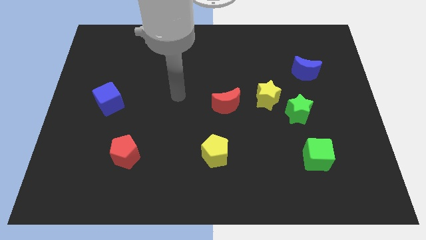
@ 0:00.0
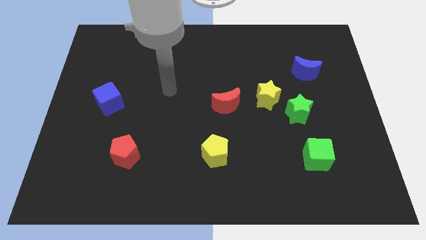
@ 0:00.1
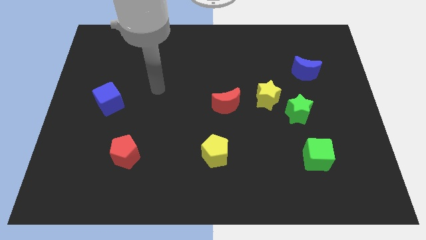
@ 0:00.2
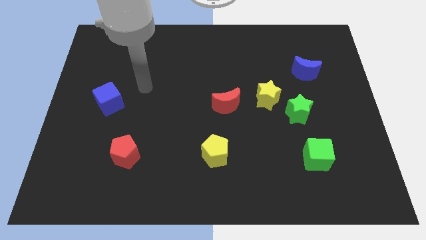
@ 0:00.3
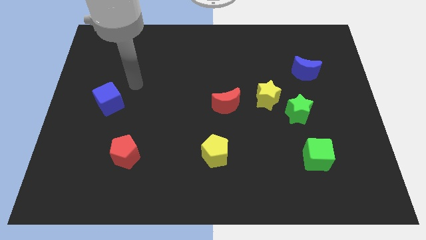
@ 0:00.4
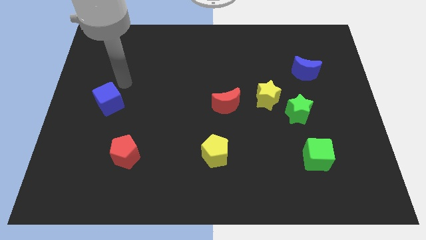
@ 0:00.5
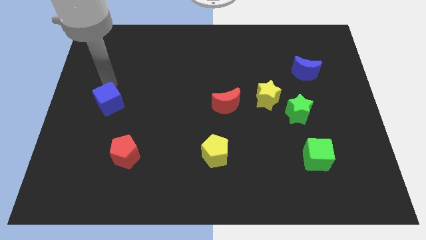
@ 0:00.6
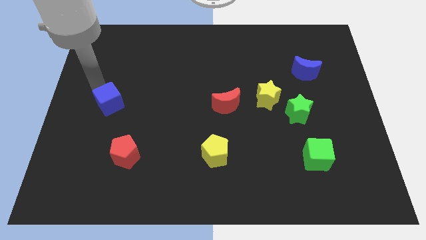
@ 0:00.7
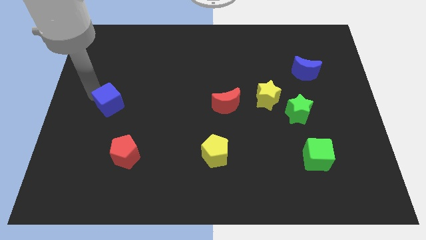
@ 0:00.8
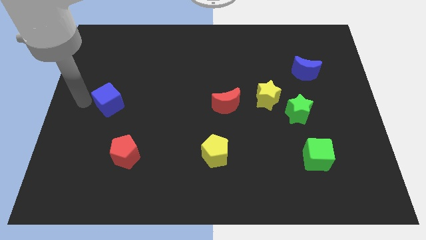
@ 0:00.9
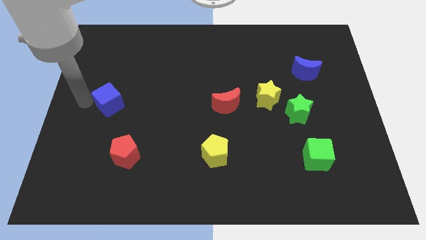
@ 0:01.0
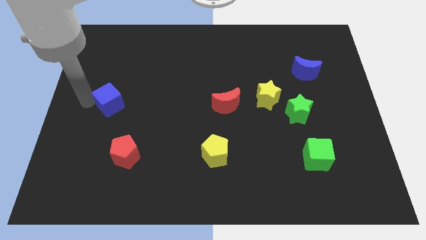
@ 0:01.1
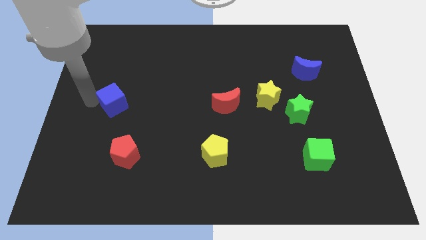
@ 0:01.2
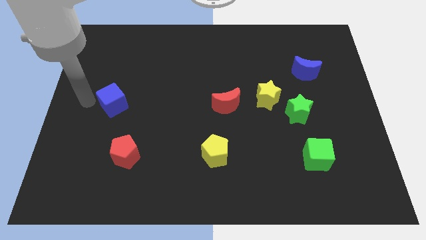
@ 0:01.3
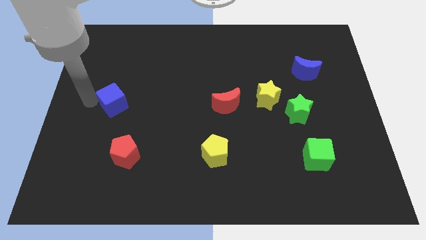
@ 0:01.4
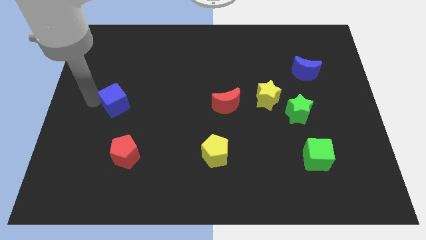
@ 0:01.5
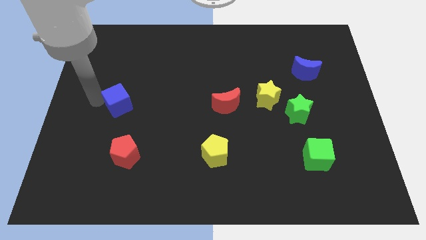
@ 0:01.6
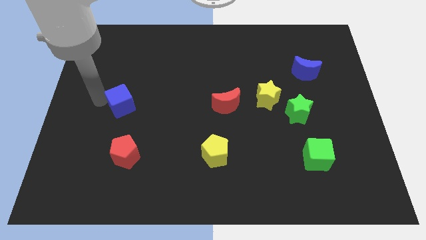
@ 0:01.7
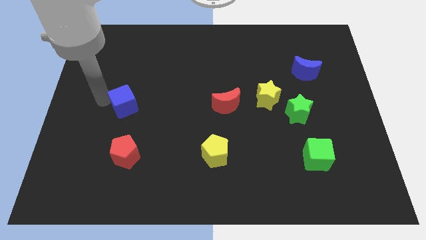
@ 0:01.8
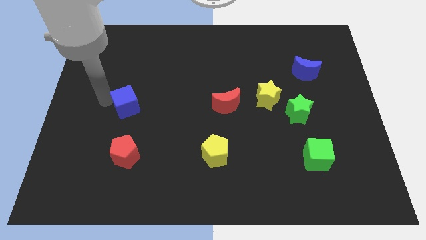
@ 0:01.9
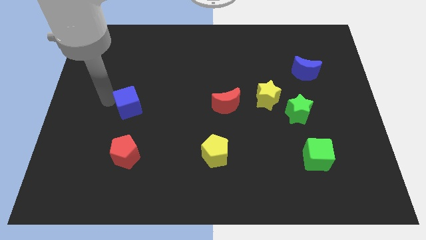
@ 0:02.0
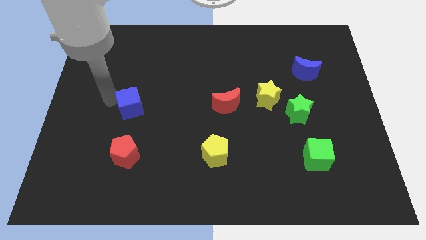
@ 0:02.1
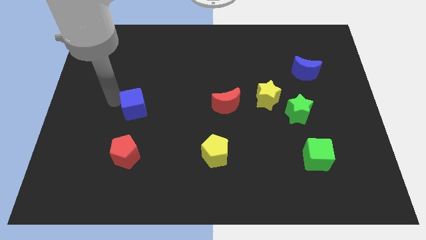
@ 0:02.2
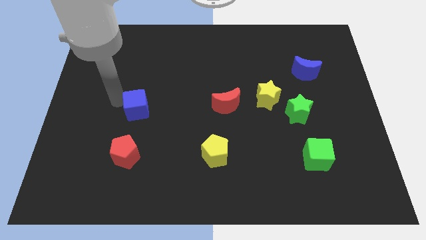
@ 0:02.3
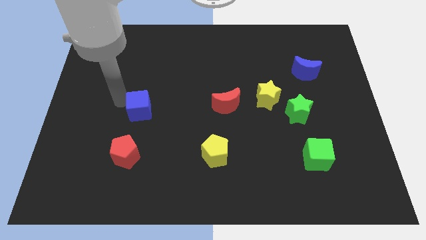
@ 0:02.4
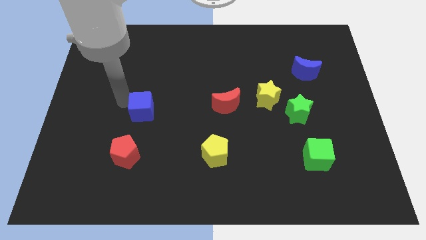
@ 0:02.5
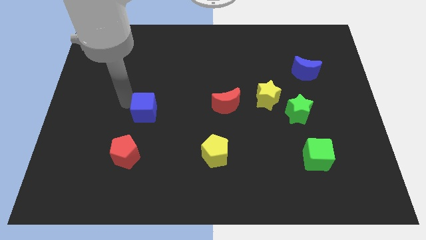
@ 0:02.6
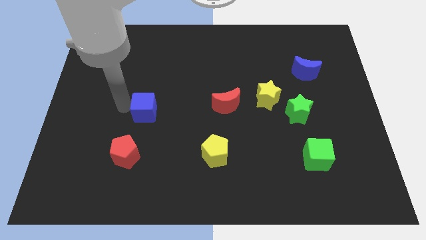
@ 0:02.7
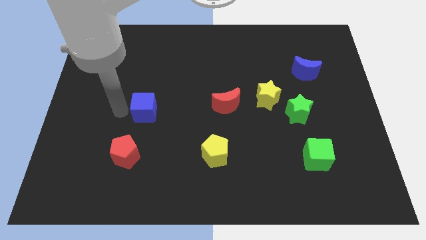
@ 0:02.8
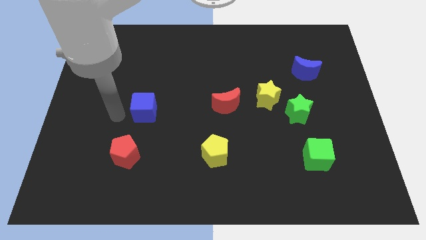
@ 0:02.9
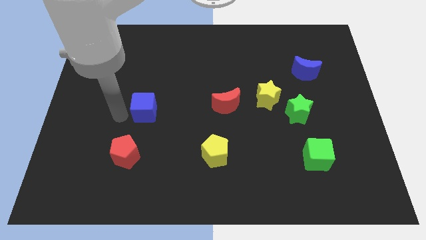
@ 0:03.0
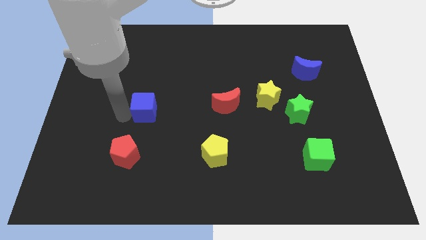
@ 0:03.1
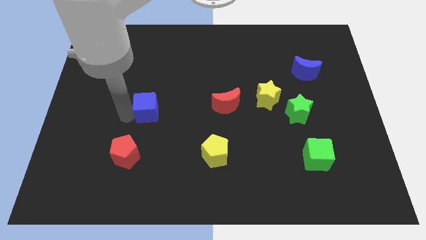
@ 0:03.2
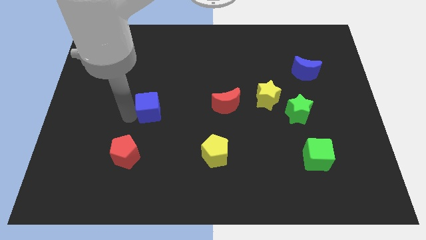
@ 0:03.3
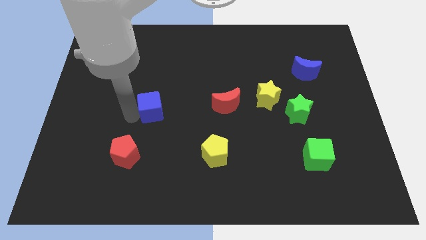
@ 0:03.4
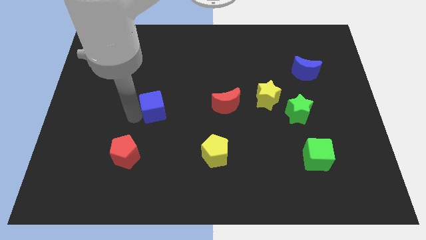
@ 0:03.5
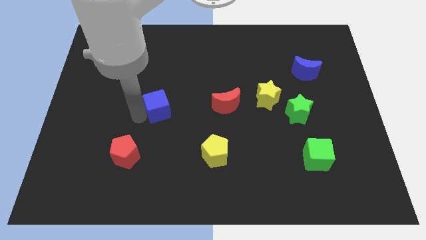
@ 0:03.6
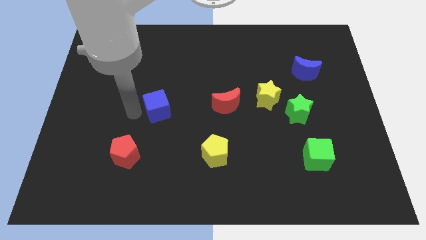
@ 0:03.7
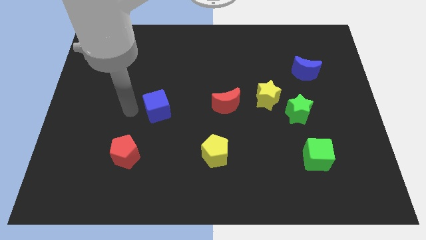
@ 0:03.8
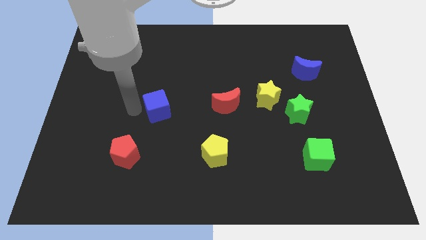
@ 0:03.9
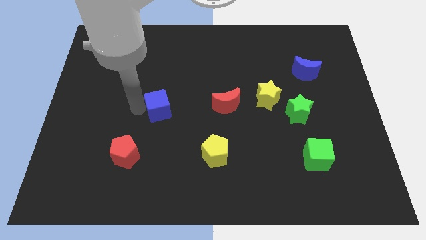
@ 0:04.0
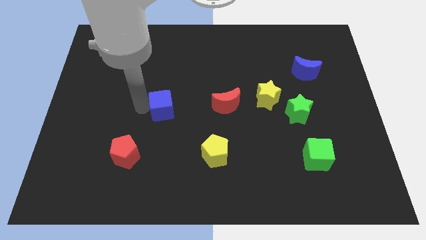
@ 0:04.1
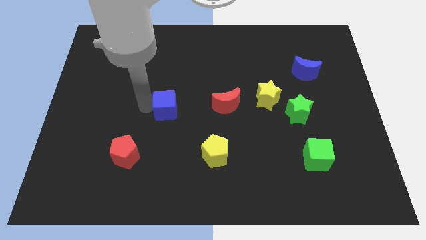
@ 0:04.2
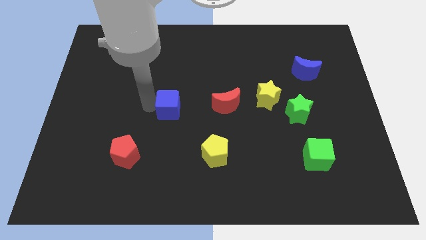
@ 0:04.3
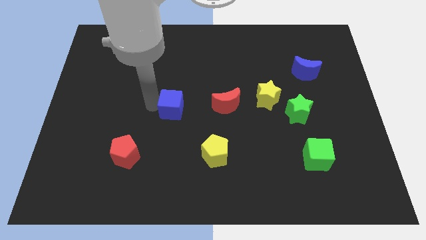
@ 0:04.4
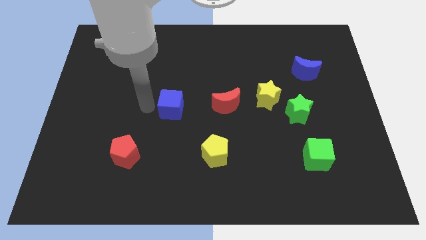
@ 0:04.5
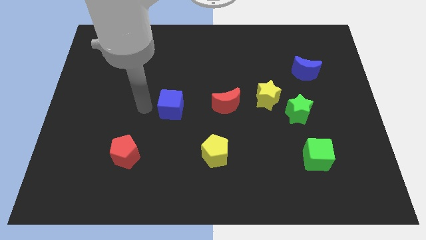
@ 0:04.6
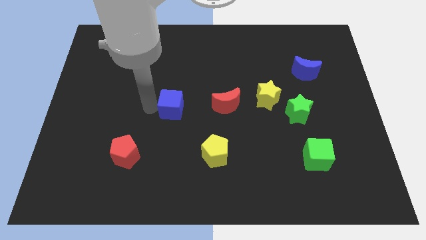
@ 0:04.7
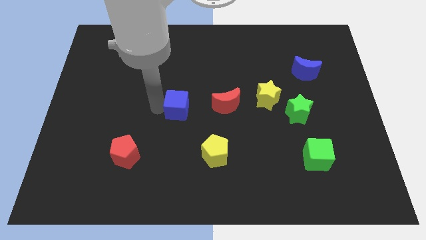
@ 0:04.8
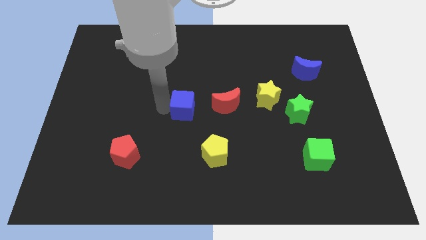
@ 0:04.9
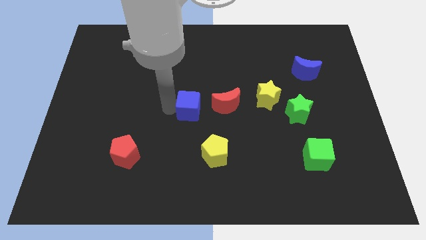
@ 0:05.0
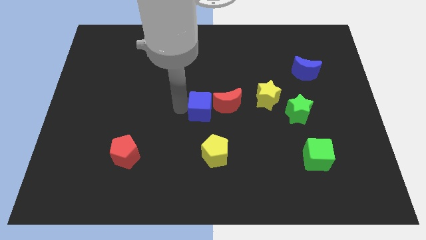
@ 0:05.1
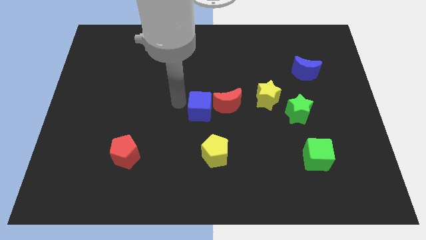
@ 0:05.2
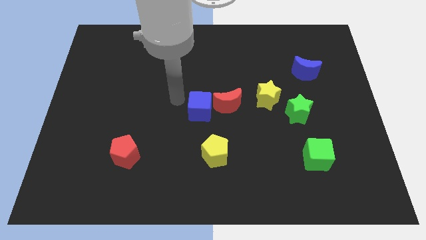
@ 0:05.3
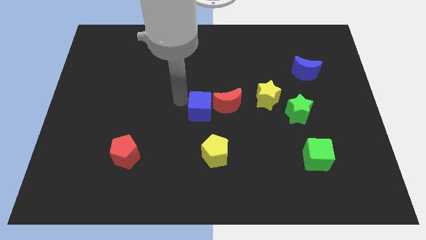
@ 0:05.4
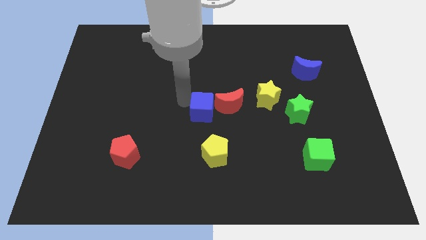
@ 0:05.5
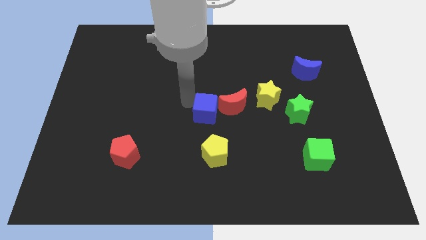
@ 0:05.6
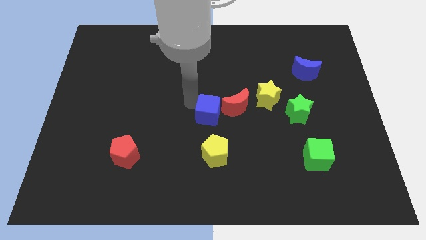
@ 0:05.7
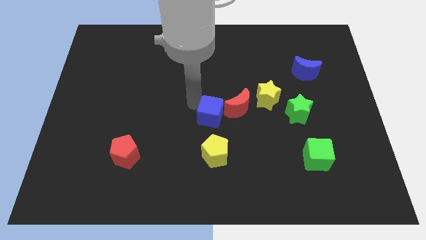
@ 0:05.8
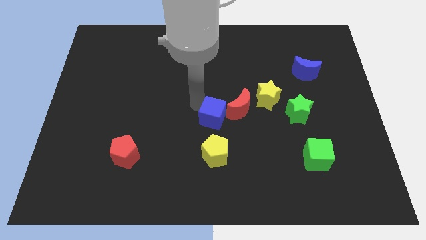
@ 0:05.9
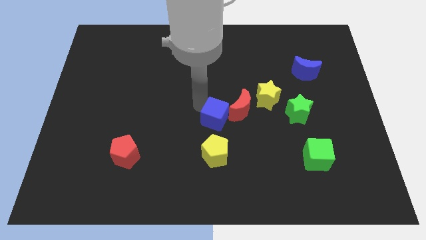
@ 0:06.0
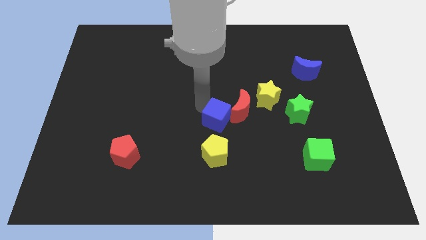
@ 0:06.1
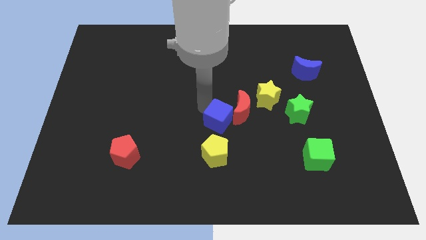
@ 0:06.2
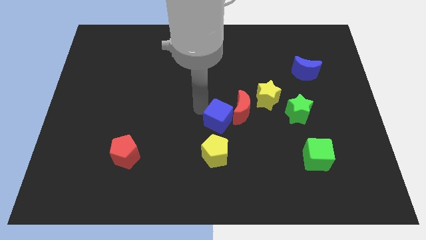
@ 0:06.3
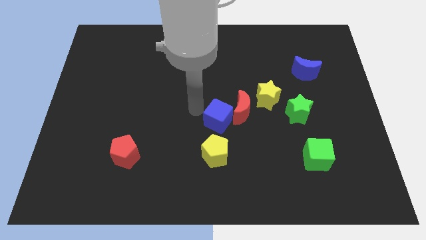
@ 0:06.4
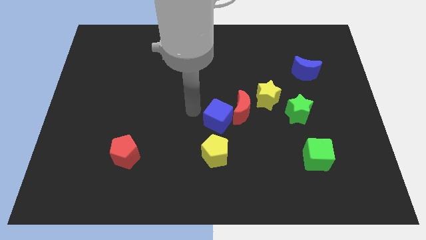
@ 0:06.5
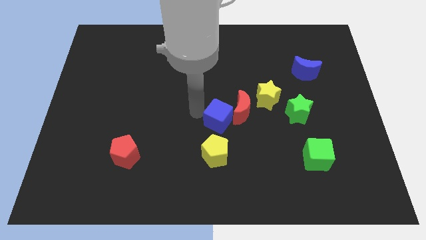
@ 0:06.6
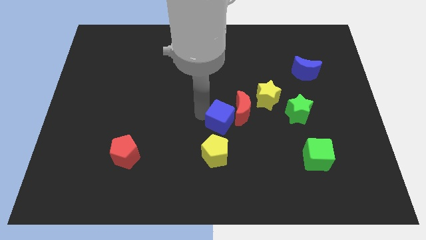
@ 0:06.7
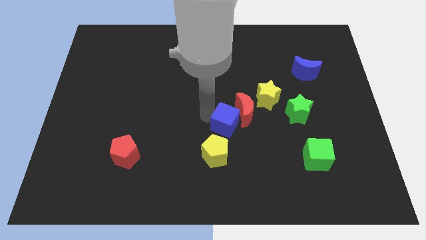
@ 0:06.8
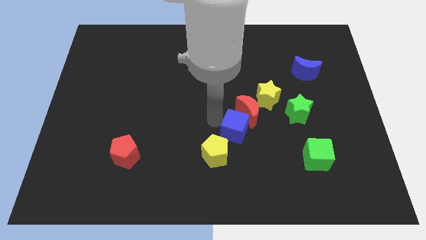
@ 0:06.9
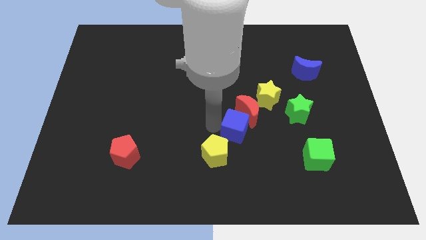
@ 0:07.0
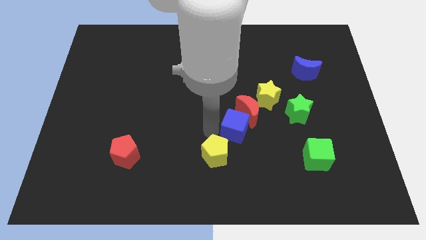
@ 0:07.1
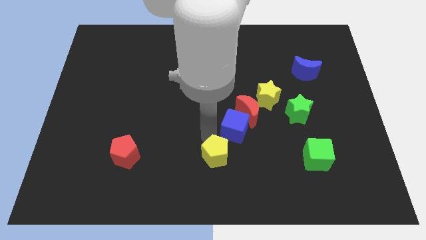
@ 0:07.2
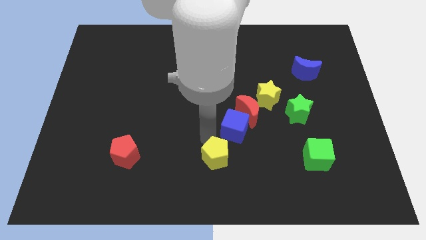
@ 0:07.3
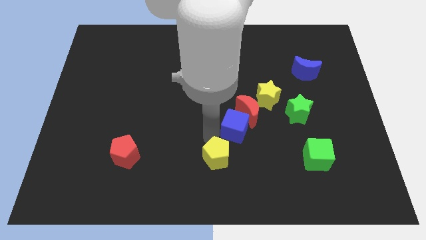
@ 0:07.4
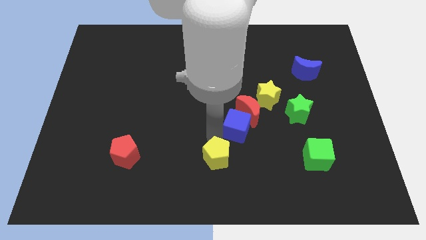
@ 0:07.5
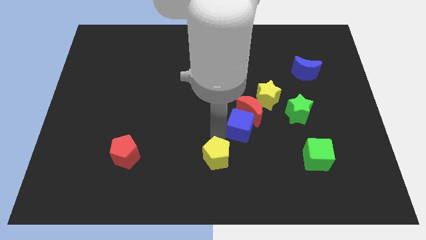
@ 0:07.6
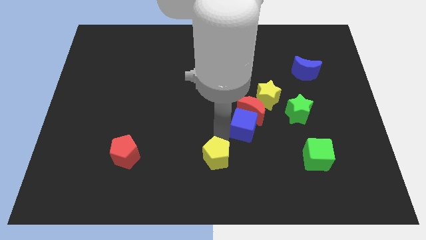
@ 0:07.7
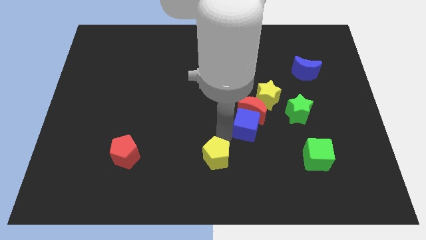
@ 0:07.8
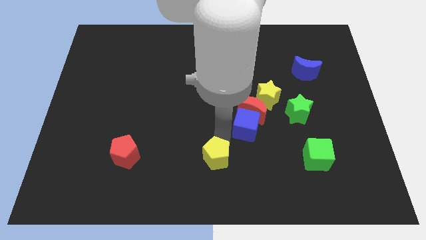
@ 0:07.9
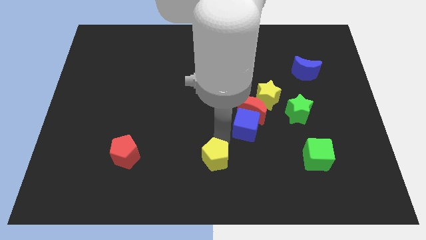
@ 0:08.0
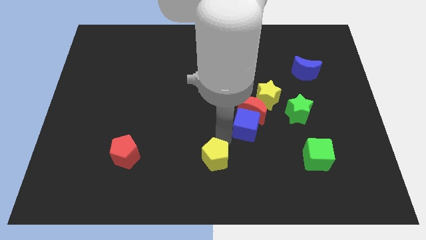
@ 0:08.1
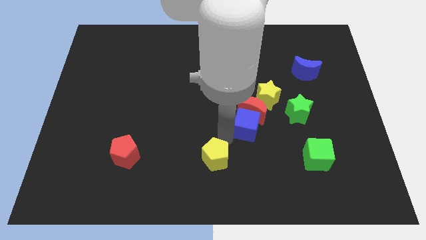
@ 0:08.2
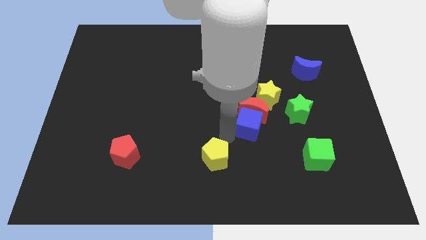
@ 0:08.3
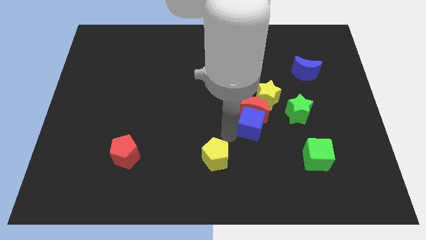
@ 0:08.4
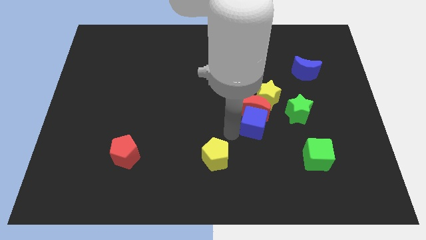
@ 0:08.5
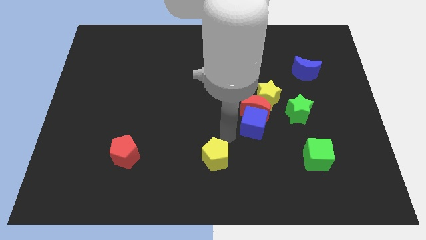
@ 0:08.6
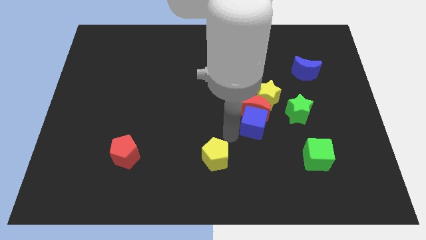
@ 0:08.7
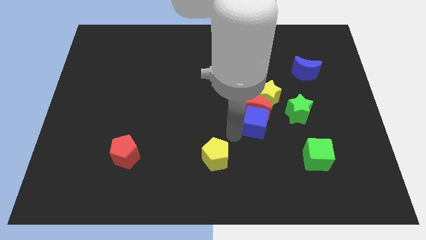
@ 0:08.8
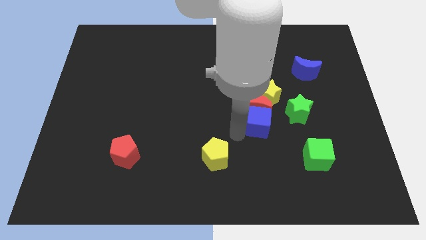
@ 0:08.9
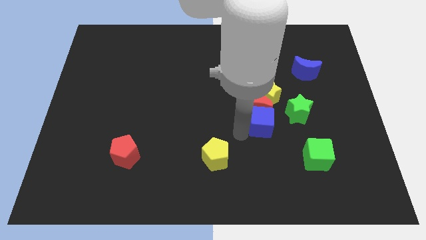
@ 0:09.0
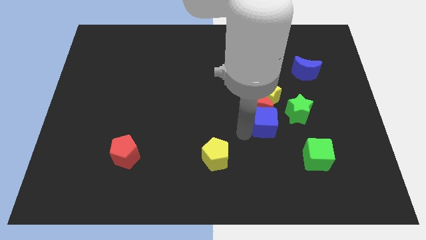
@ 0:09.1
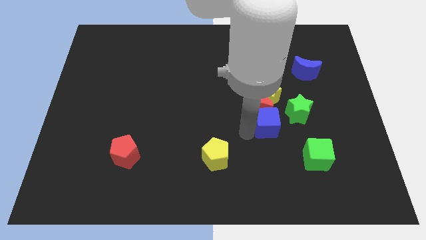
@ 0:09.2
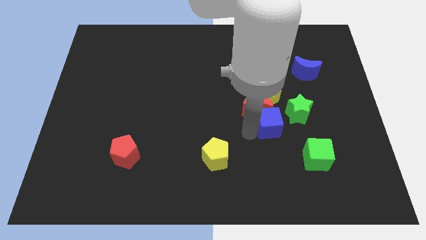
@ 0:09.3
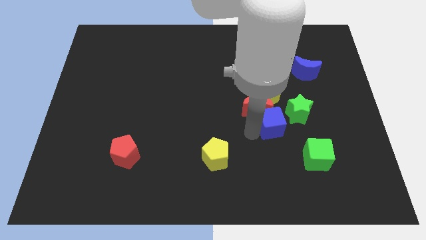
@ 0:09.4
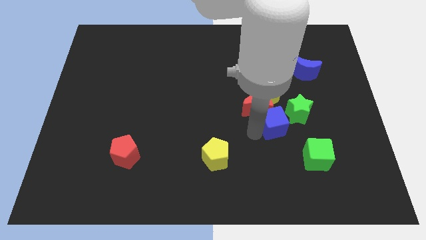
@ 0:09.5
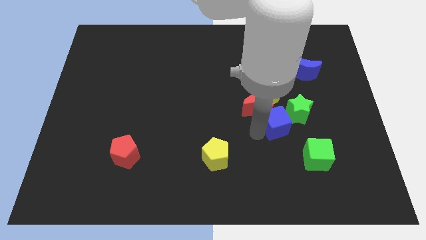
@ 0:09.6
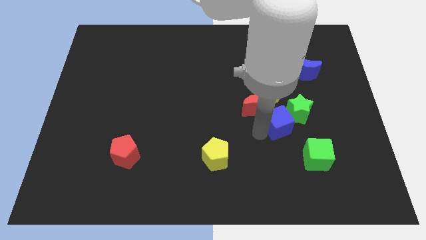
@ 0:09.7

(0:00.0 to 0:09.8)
slide the blue cube towards the green star
